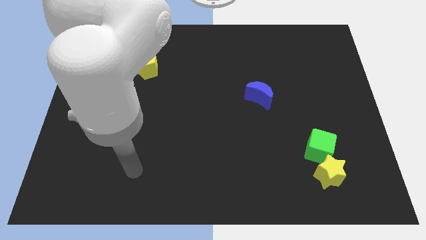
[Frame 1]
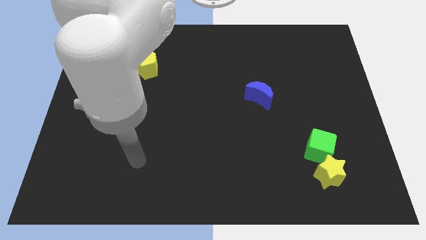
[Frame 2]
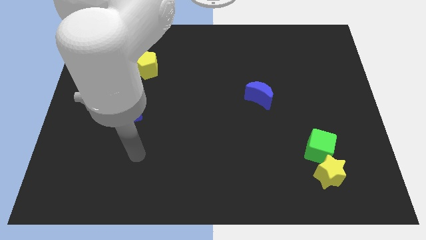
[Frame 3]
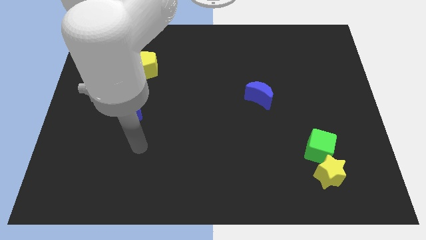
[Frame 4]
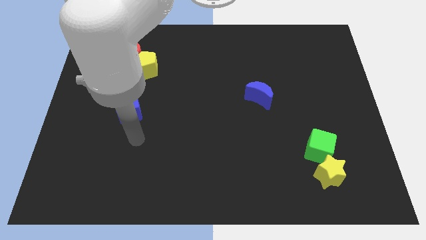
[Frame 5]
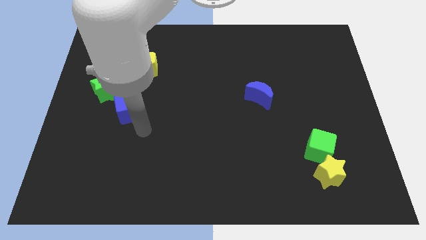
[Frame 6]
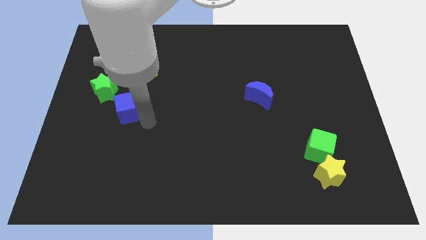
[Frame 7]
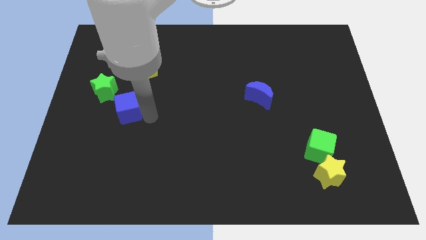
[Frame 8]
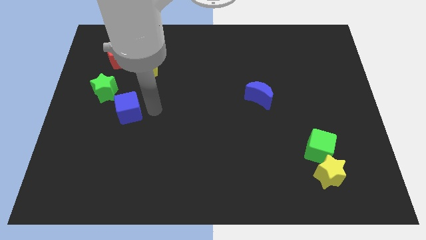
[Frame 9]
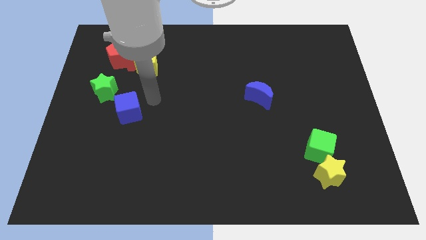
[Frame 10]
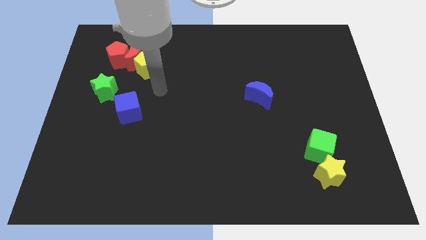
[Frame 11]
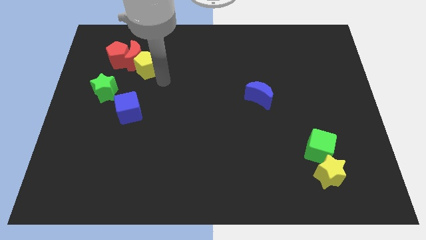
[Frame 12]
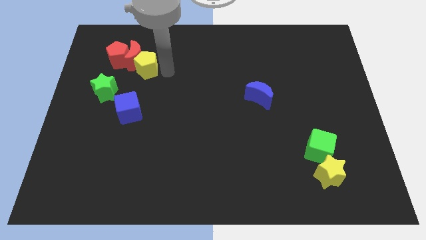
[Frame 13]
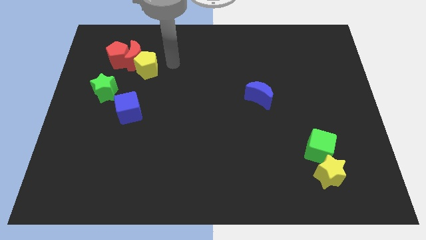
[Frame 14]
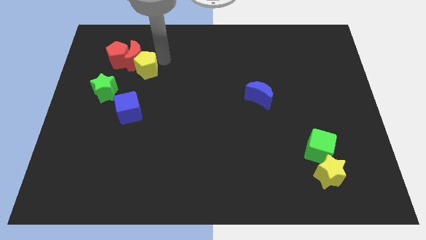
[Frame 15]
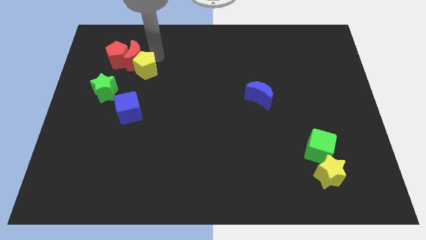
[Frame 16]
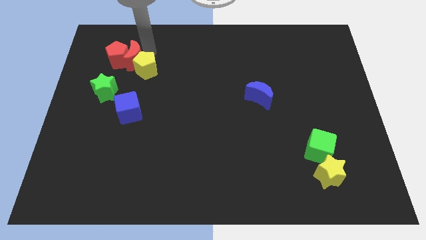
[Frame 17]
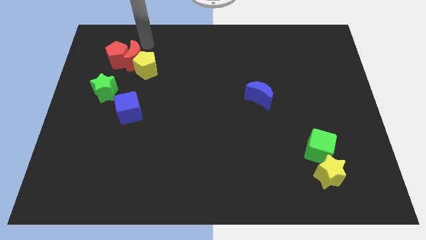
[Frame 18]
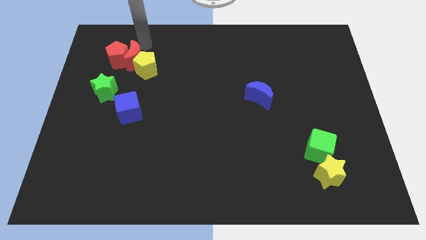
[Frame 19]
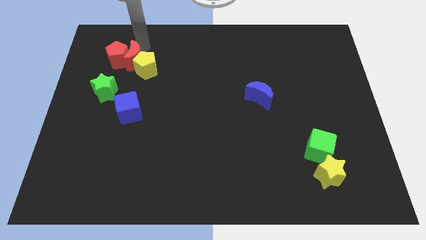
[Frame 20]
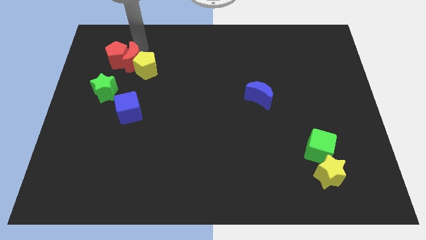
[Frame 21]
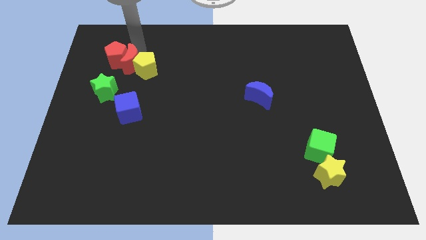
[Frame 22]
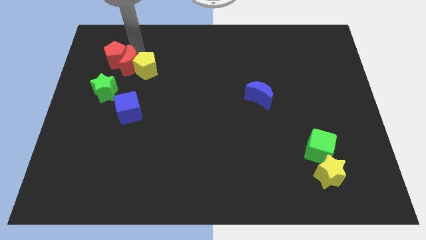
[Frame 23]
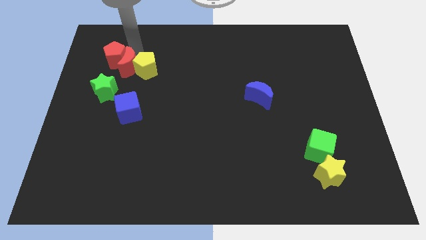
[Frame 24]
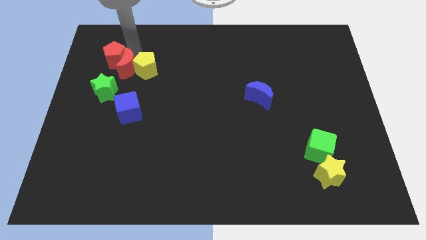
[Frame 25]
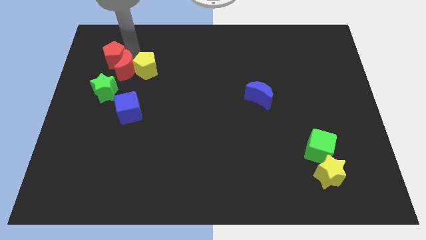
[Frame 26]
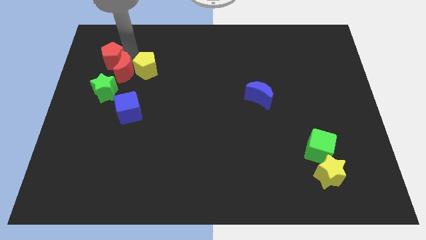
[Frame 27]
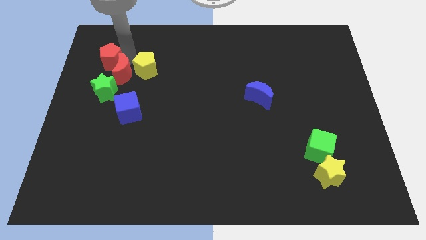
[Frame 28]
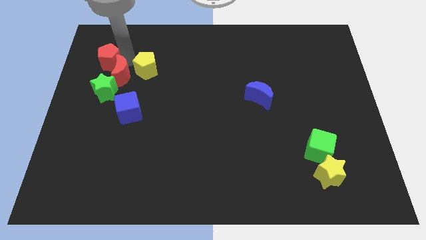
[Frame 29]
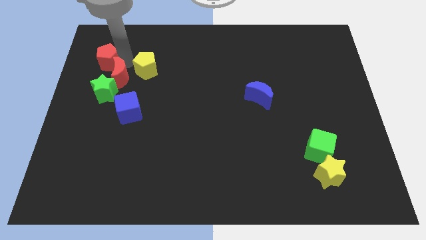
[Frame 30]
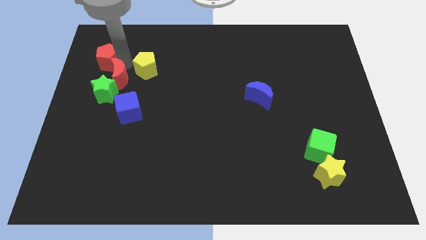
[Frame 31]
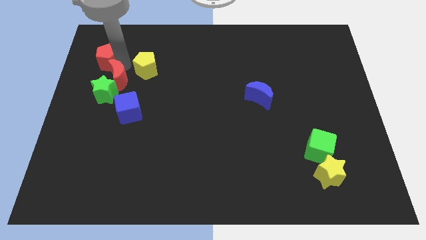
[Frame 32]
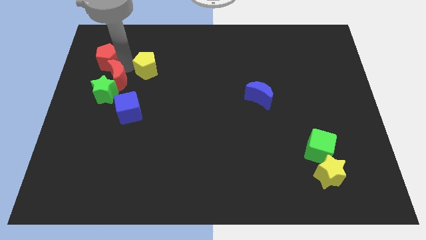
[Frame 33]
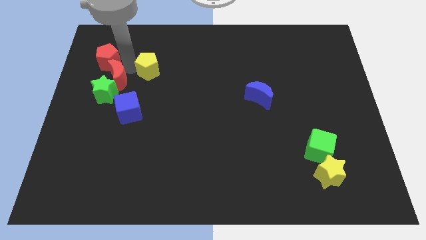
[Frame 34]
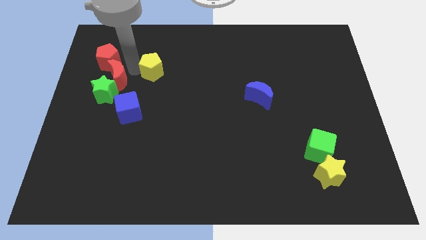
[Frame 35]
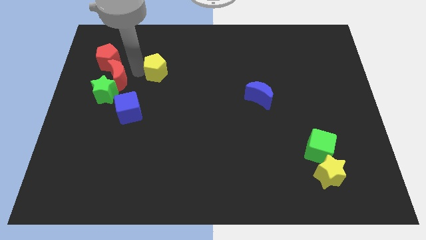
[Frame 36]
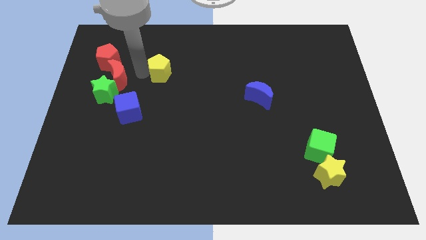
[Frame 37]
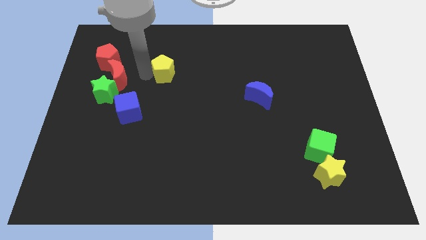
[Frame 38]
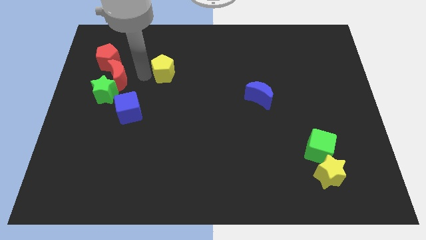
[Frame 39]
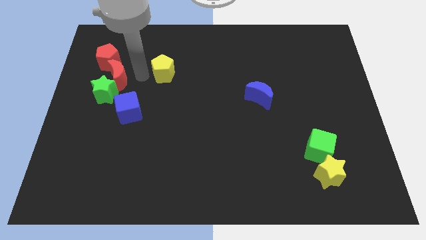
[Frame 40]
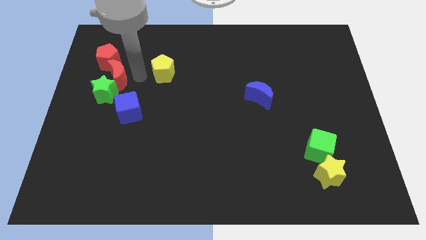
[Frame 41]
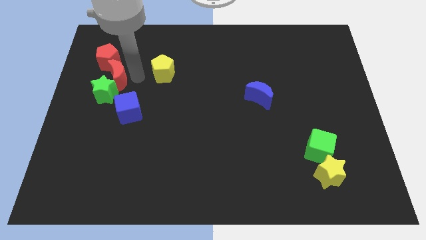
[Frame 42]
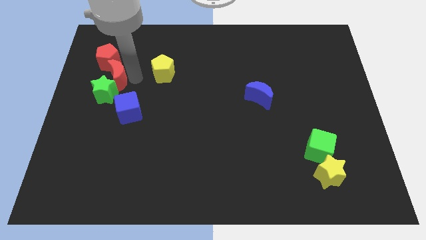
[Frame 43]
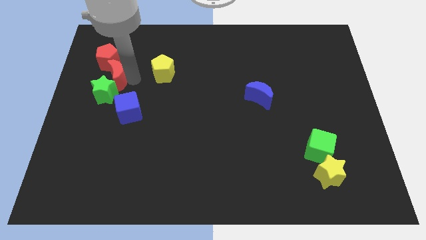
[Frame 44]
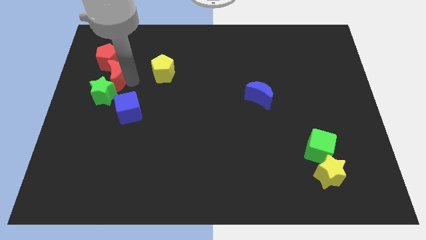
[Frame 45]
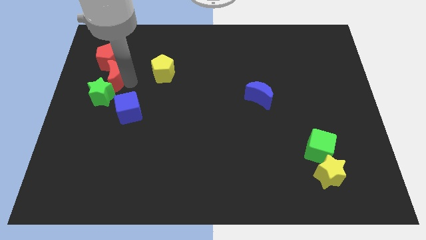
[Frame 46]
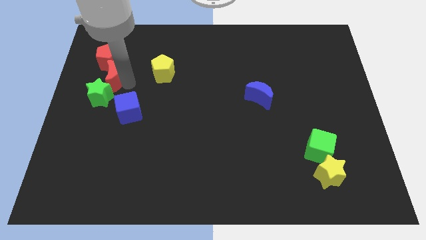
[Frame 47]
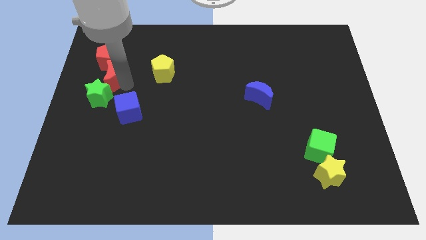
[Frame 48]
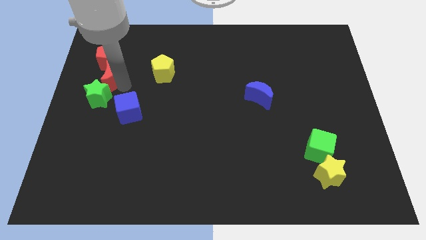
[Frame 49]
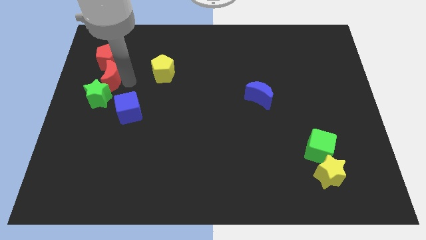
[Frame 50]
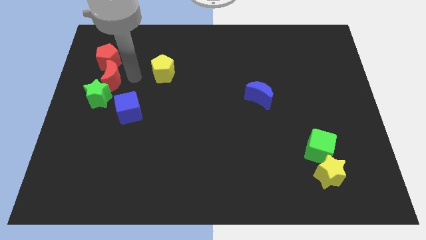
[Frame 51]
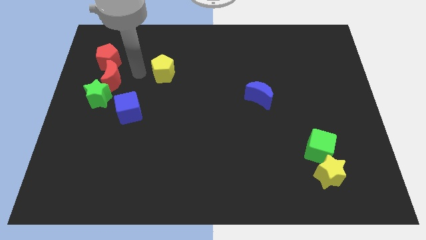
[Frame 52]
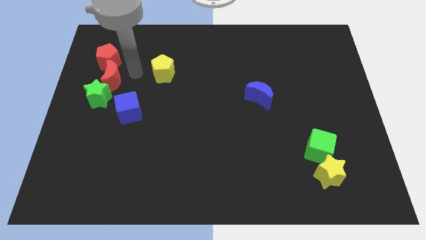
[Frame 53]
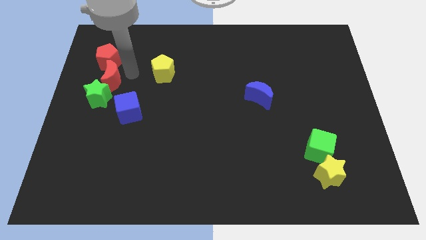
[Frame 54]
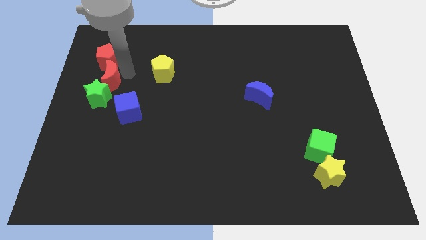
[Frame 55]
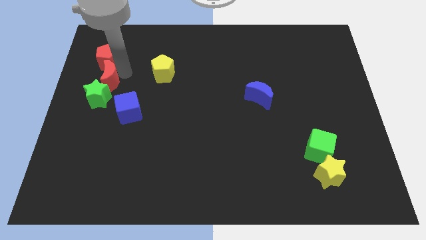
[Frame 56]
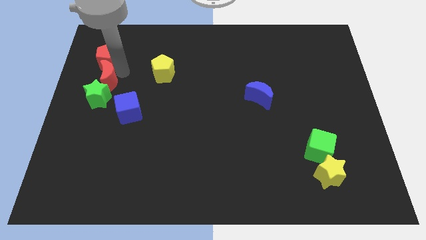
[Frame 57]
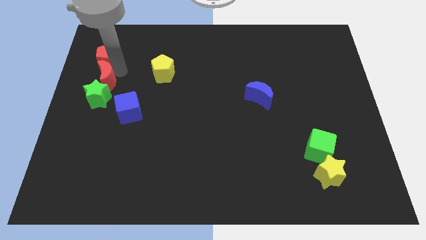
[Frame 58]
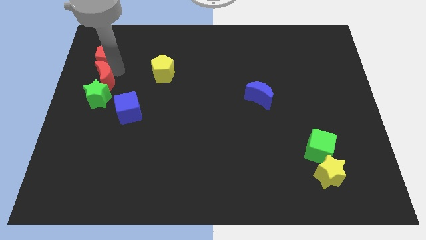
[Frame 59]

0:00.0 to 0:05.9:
put the red moon to the left side of the board

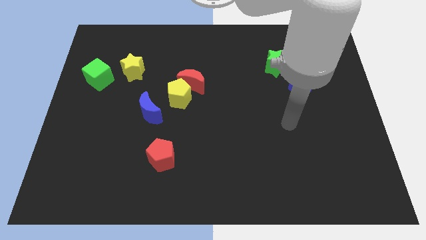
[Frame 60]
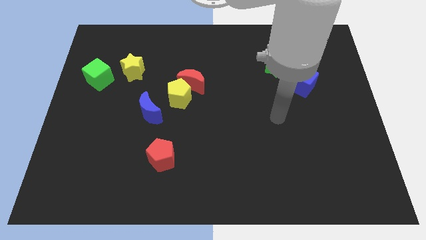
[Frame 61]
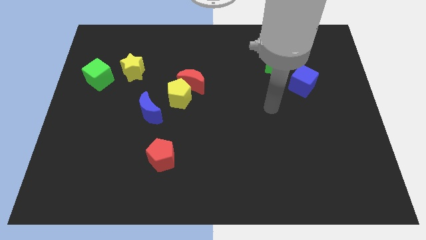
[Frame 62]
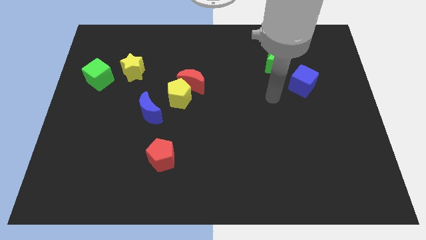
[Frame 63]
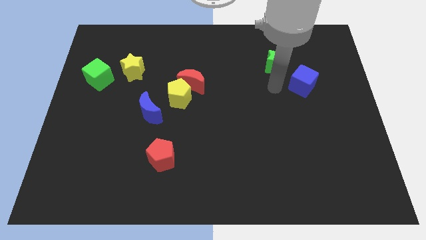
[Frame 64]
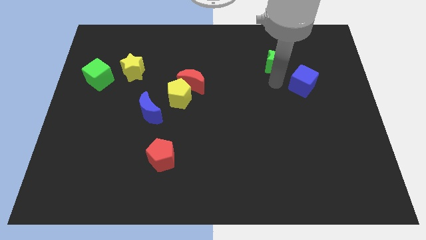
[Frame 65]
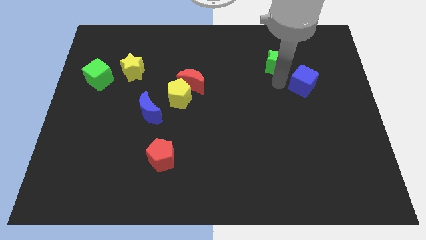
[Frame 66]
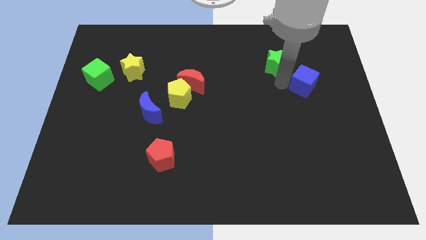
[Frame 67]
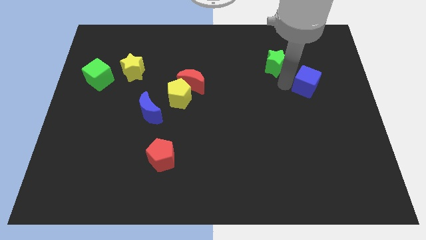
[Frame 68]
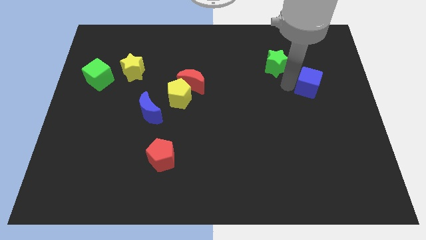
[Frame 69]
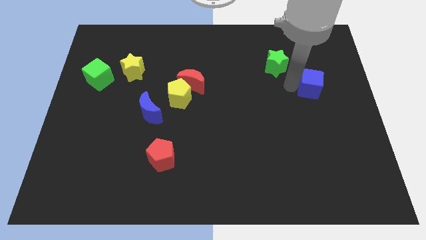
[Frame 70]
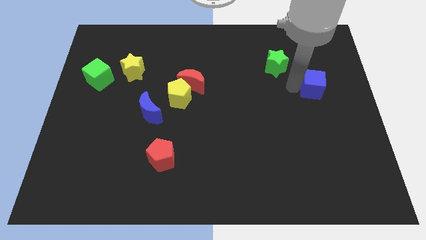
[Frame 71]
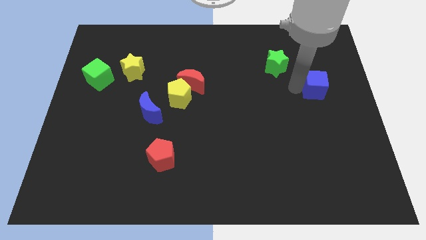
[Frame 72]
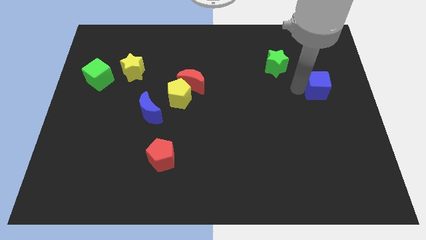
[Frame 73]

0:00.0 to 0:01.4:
put the blue cube to the right side of the board
